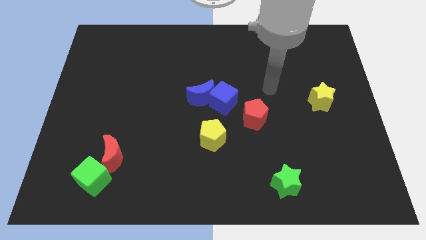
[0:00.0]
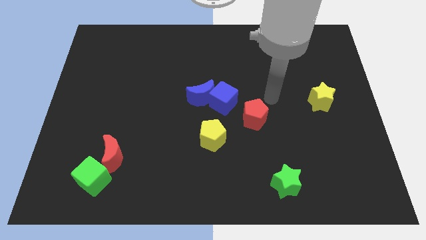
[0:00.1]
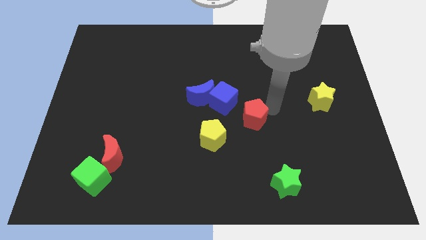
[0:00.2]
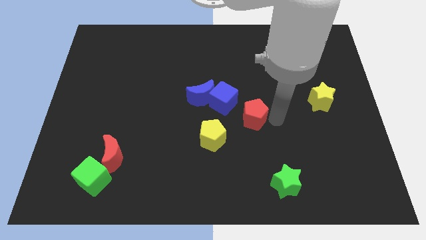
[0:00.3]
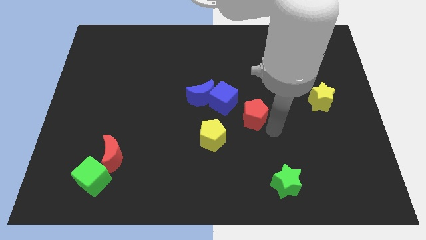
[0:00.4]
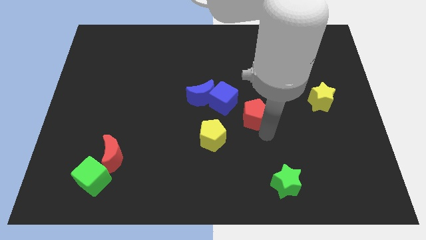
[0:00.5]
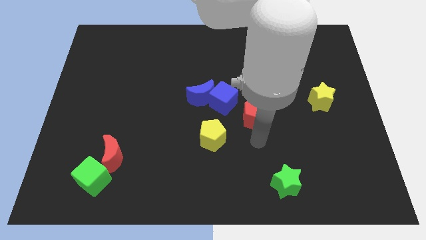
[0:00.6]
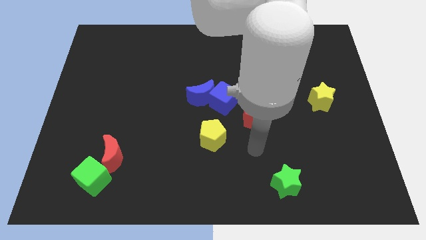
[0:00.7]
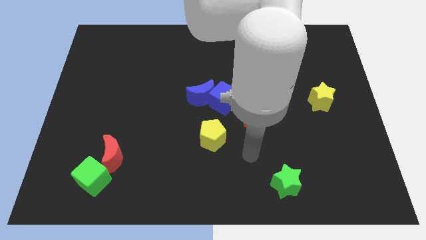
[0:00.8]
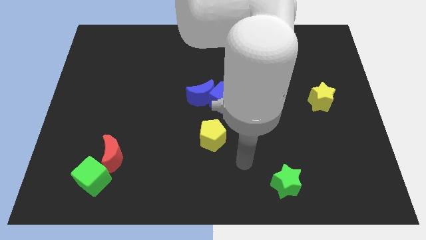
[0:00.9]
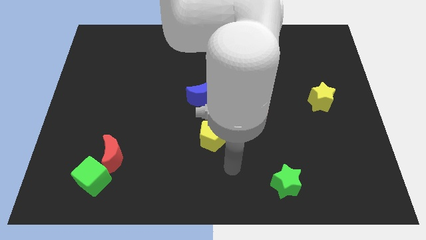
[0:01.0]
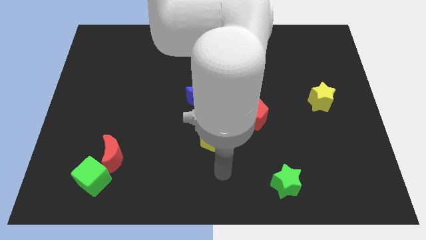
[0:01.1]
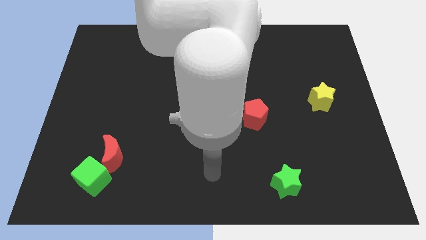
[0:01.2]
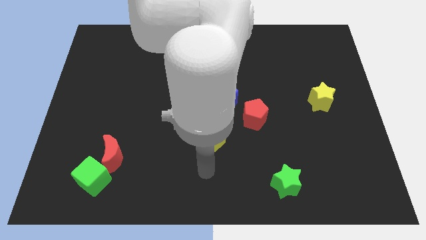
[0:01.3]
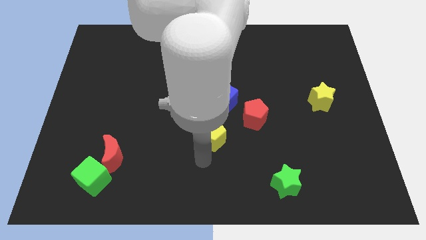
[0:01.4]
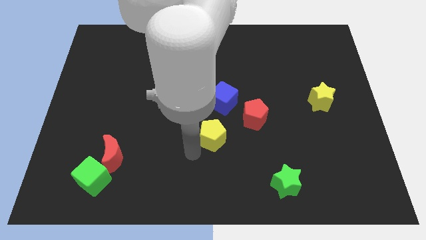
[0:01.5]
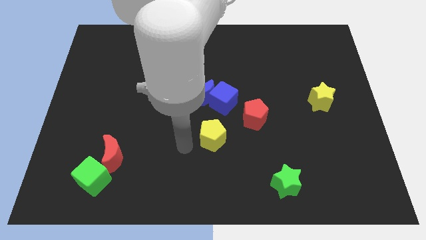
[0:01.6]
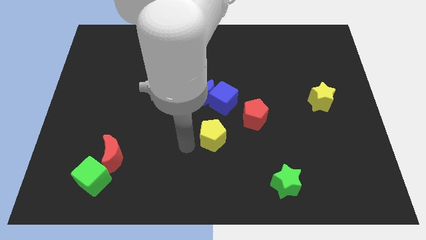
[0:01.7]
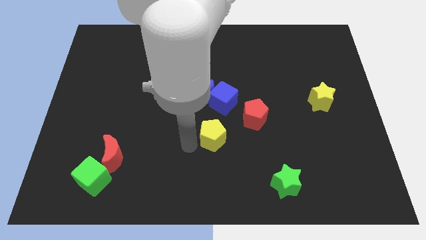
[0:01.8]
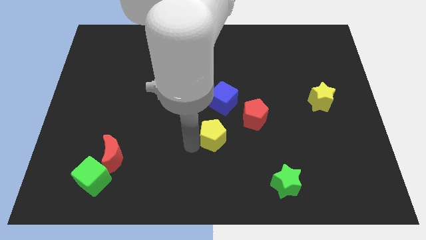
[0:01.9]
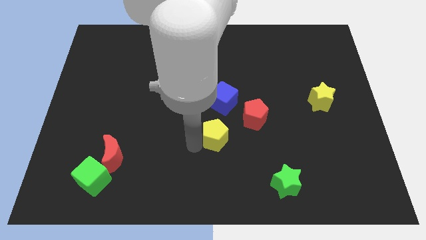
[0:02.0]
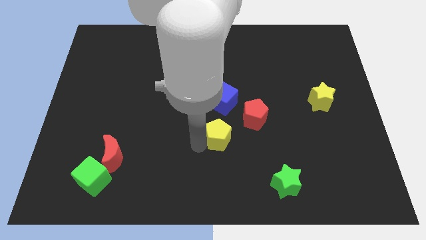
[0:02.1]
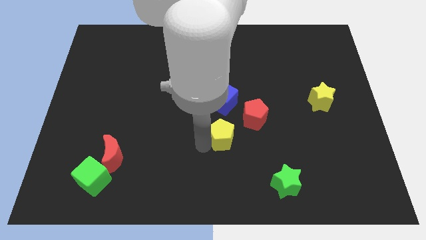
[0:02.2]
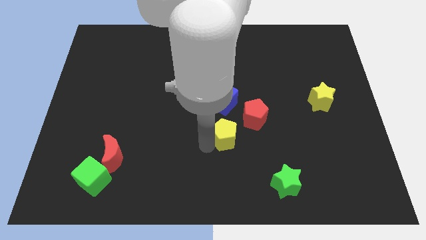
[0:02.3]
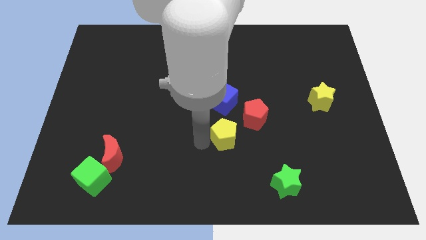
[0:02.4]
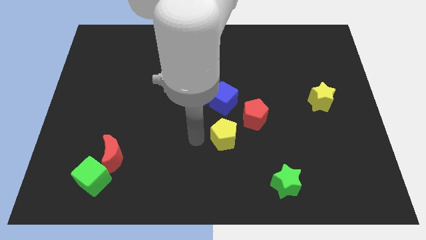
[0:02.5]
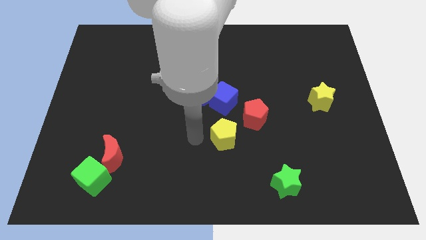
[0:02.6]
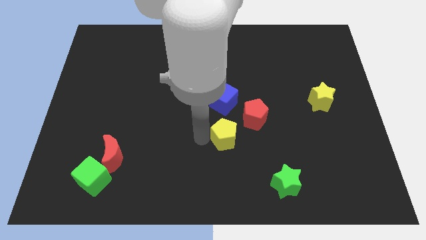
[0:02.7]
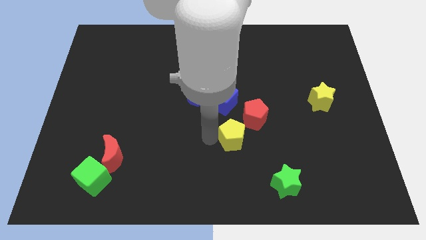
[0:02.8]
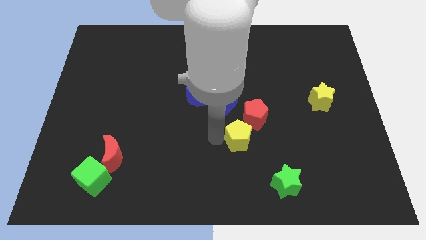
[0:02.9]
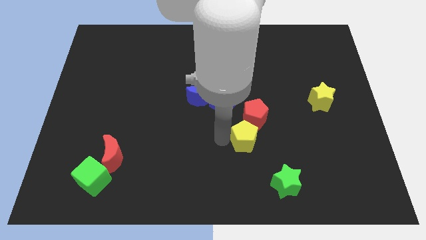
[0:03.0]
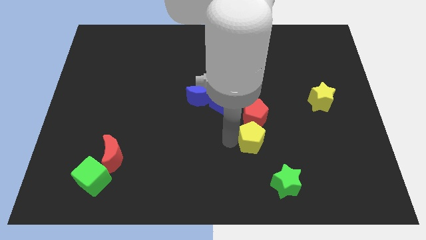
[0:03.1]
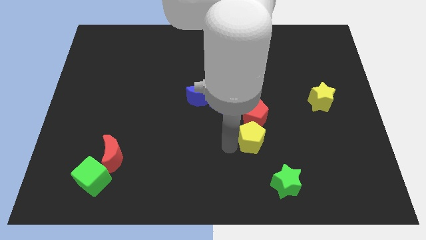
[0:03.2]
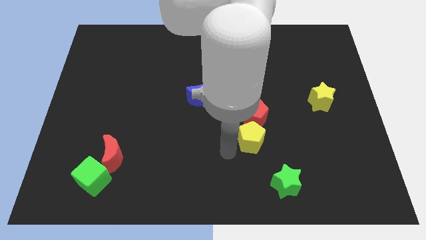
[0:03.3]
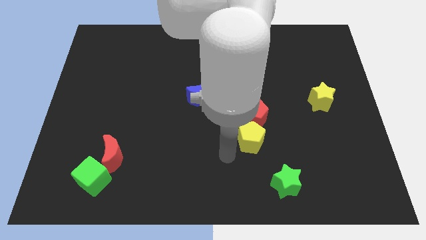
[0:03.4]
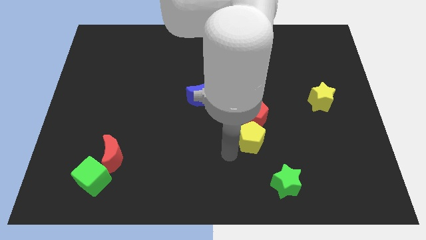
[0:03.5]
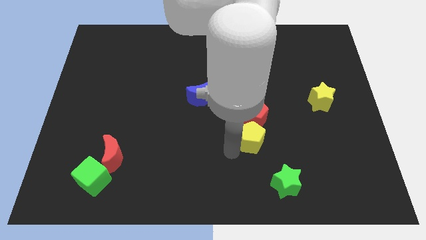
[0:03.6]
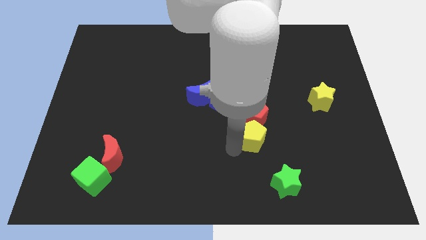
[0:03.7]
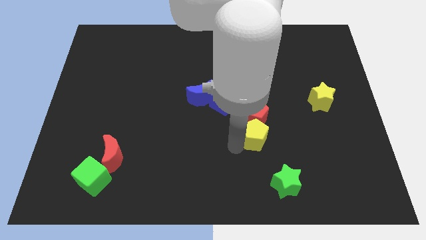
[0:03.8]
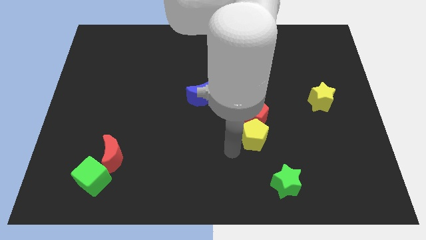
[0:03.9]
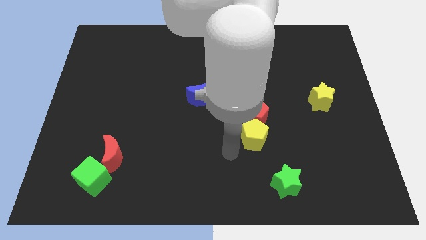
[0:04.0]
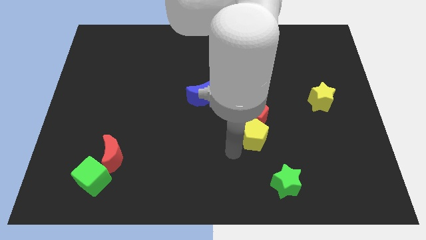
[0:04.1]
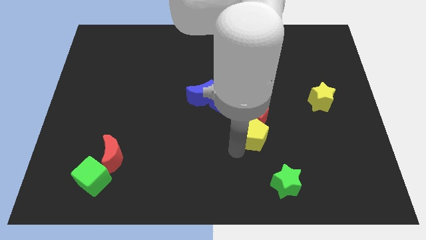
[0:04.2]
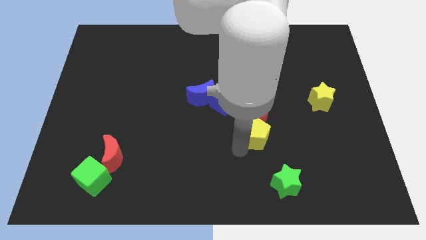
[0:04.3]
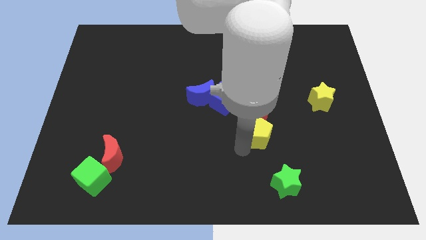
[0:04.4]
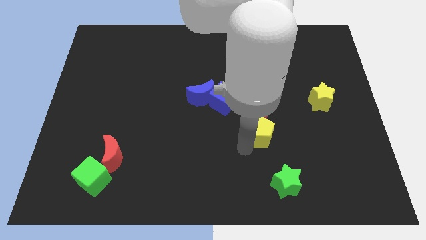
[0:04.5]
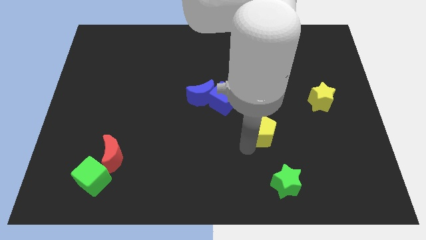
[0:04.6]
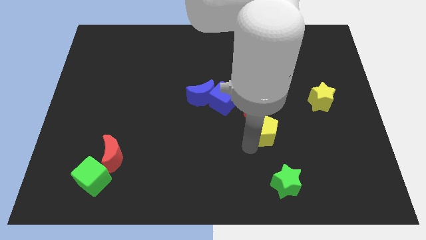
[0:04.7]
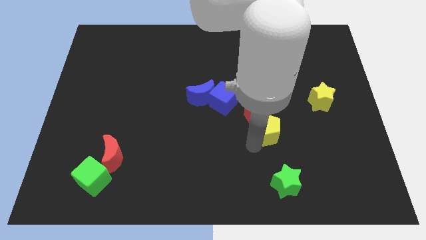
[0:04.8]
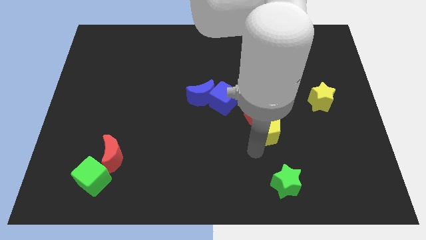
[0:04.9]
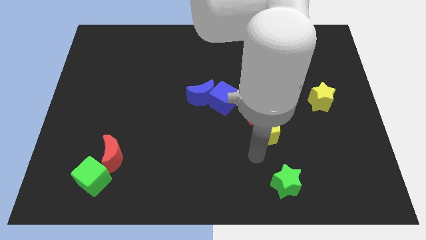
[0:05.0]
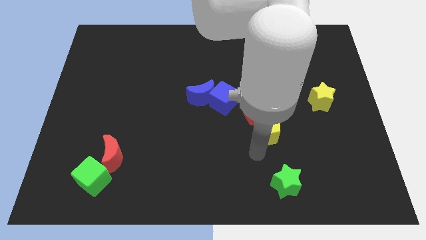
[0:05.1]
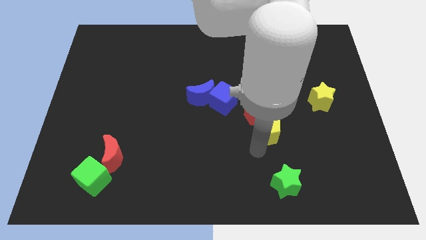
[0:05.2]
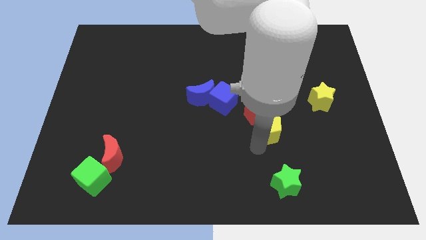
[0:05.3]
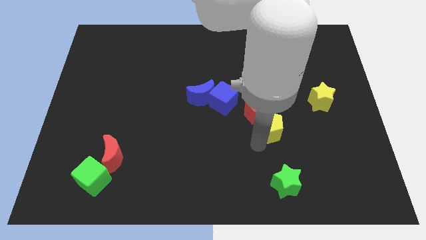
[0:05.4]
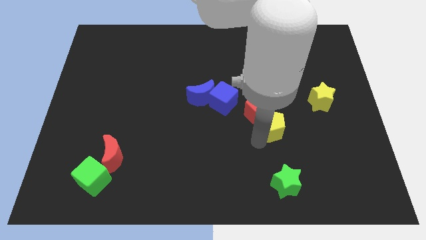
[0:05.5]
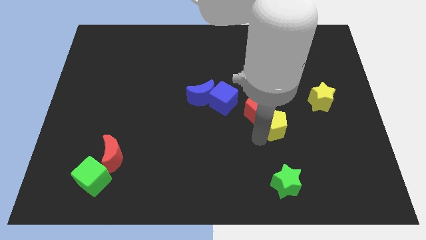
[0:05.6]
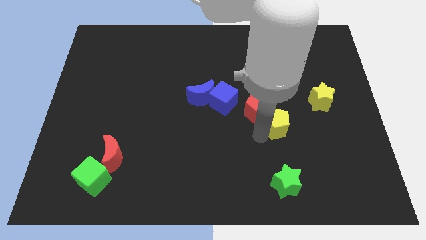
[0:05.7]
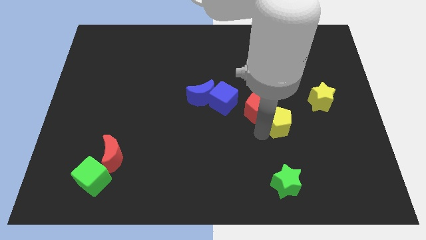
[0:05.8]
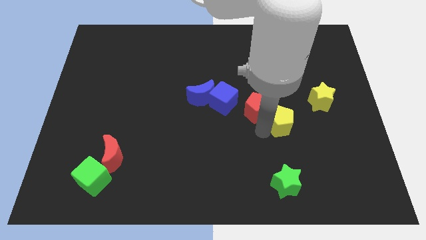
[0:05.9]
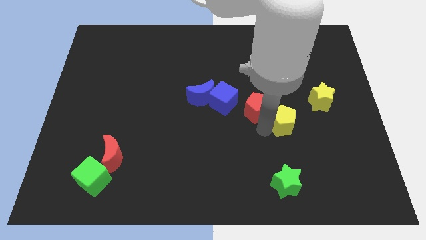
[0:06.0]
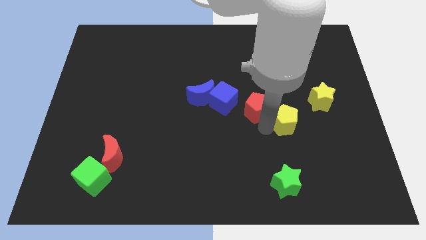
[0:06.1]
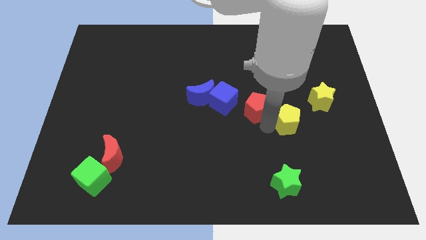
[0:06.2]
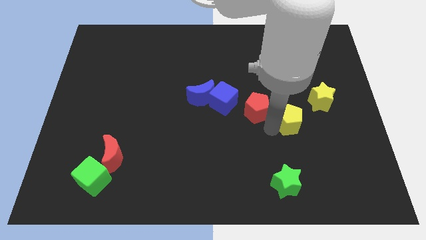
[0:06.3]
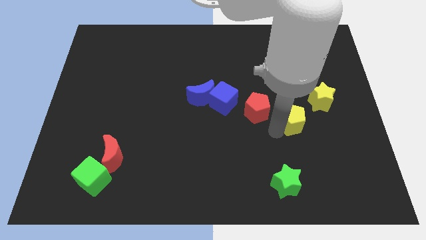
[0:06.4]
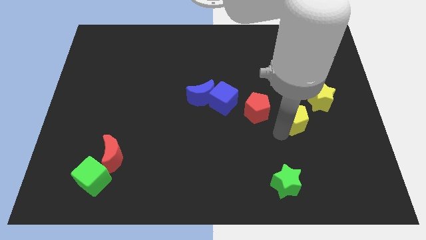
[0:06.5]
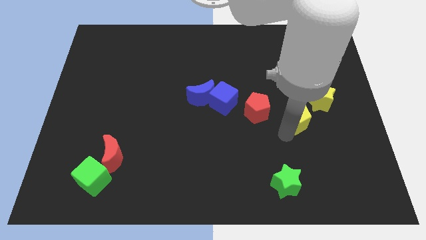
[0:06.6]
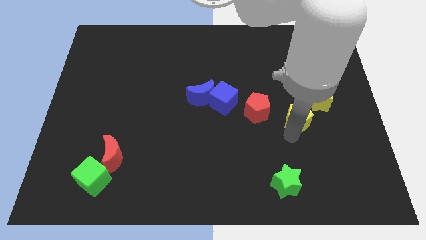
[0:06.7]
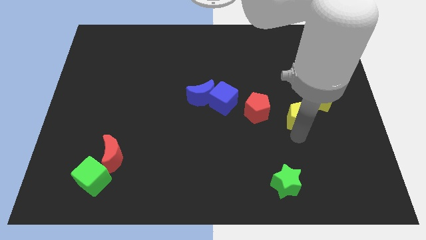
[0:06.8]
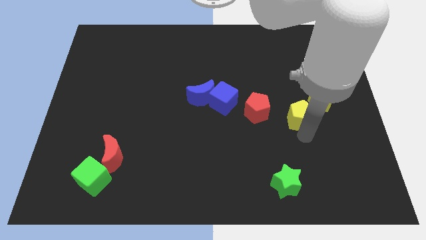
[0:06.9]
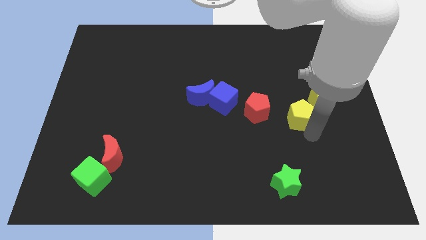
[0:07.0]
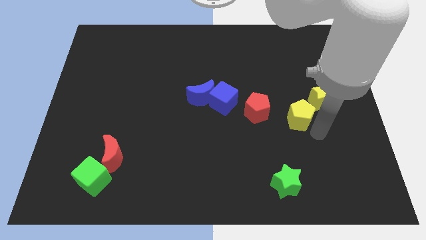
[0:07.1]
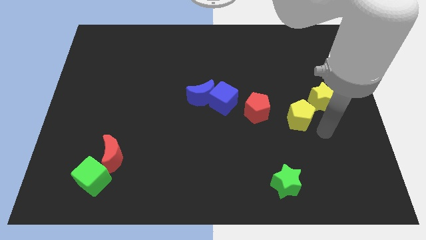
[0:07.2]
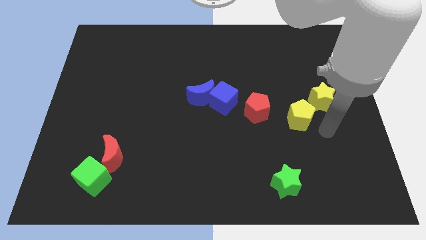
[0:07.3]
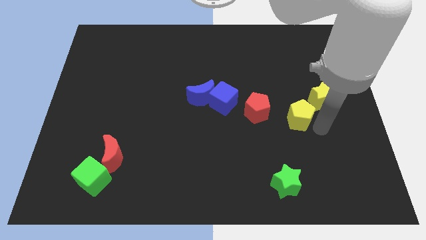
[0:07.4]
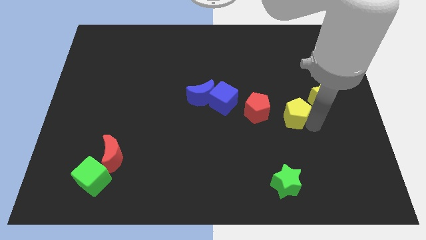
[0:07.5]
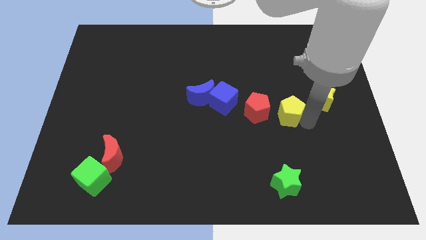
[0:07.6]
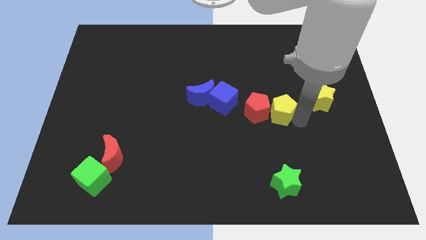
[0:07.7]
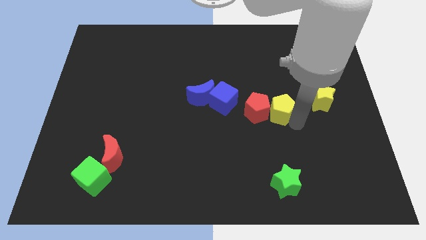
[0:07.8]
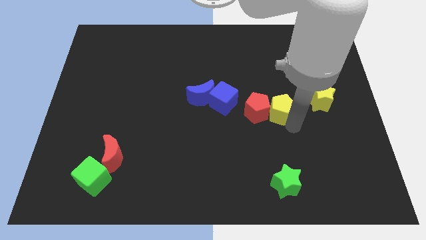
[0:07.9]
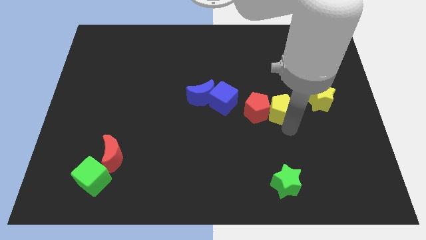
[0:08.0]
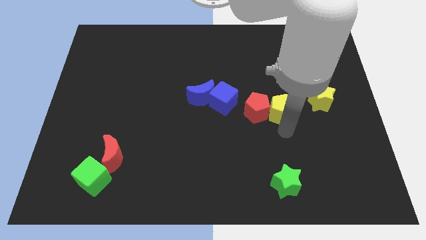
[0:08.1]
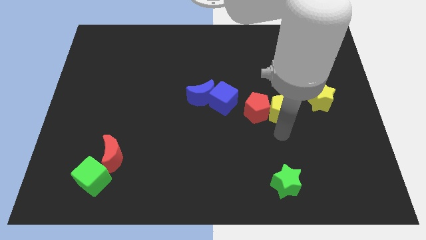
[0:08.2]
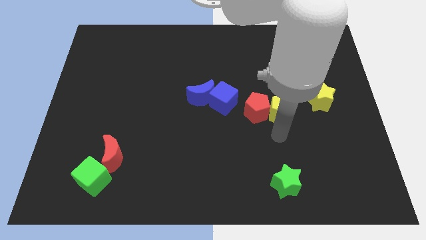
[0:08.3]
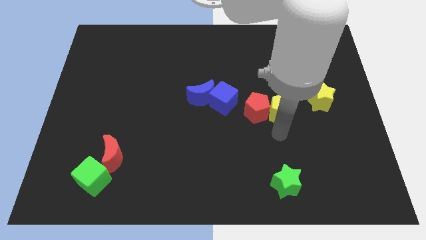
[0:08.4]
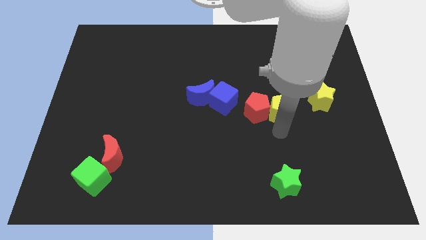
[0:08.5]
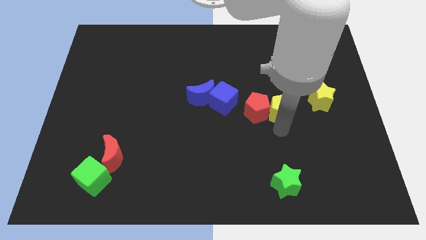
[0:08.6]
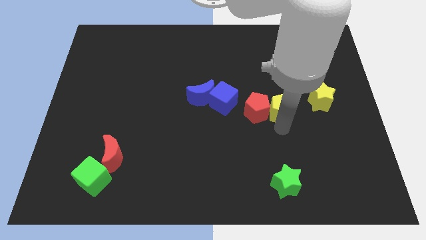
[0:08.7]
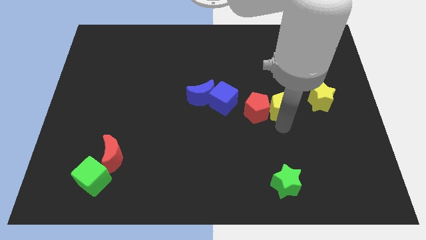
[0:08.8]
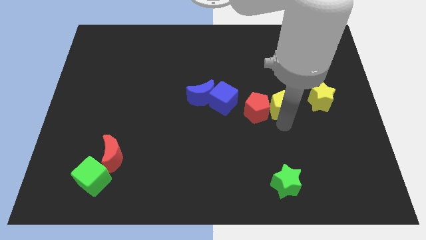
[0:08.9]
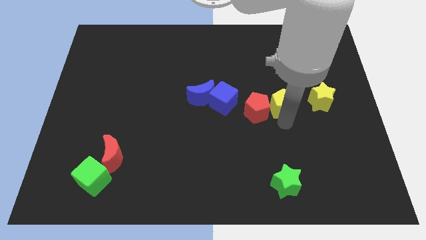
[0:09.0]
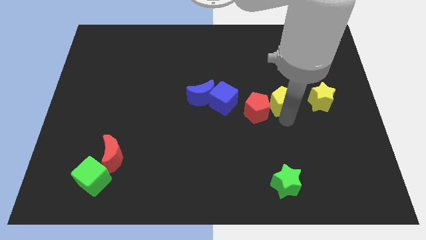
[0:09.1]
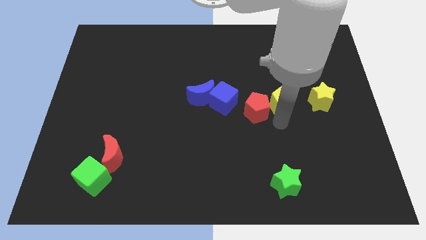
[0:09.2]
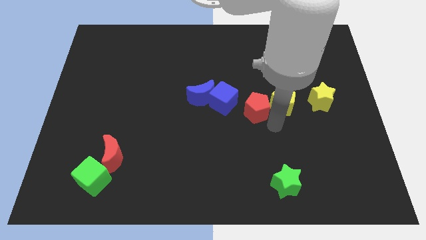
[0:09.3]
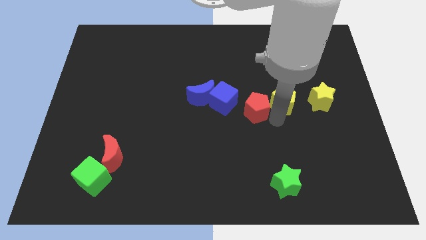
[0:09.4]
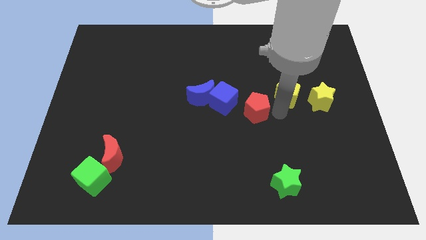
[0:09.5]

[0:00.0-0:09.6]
push the yellow pentagon diagonally upwards and right
